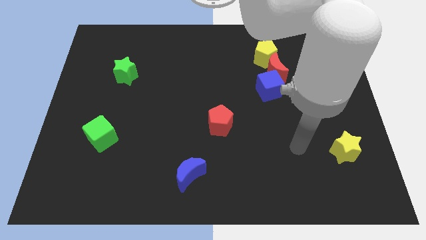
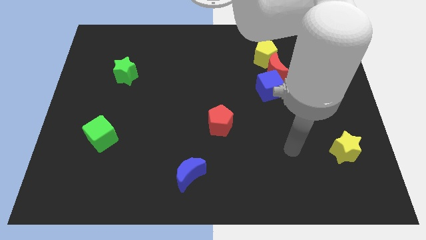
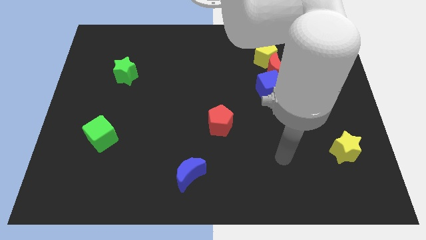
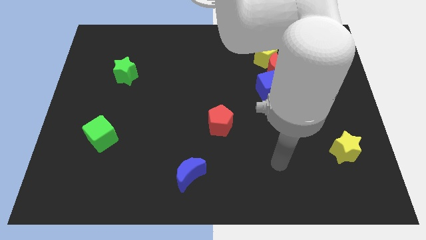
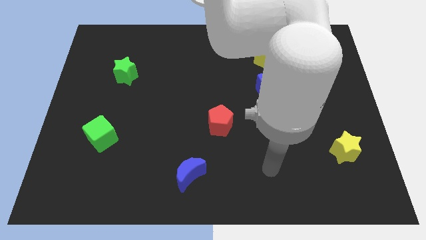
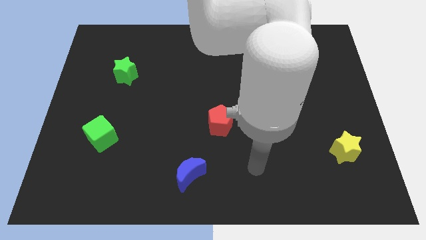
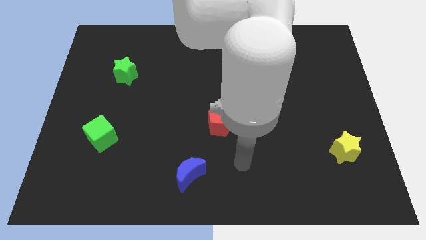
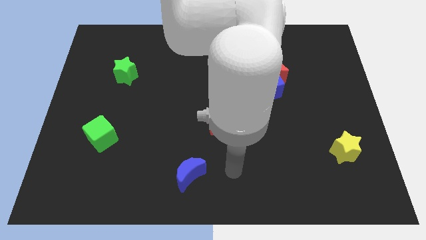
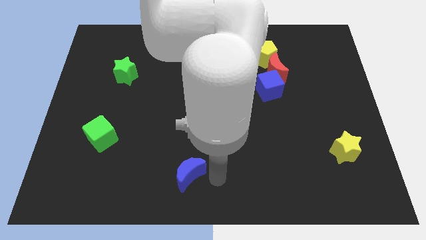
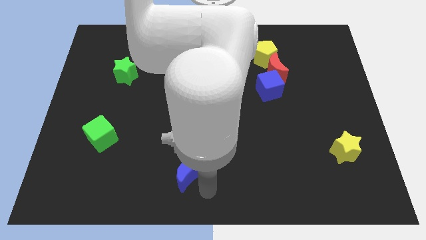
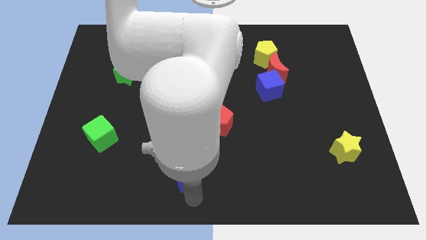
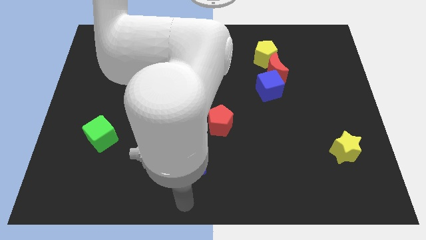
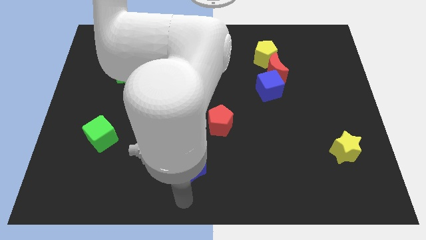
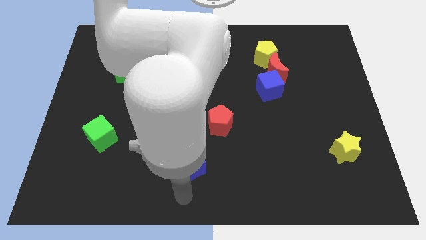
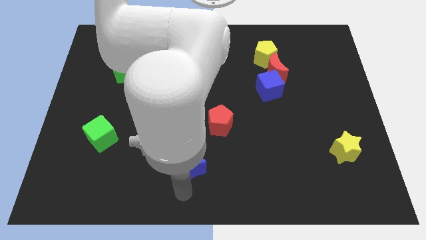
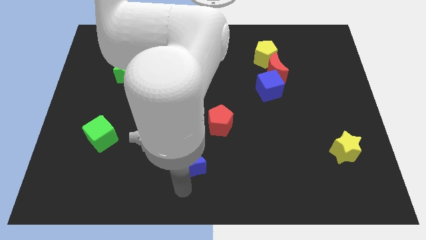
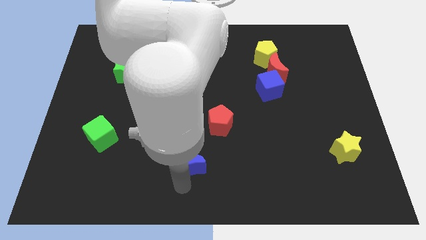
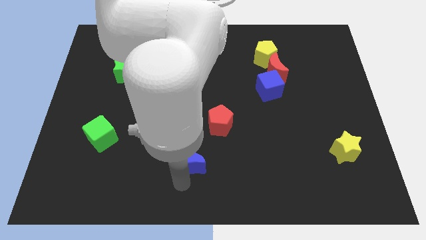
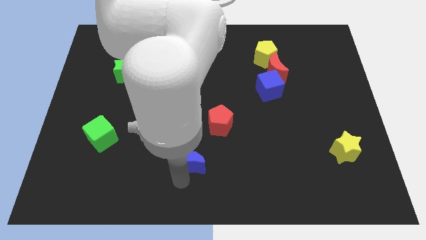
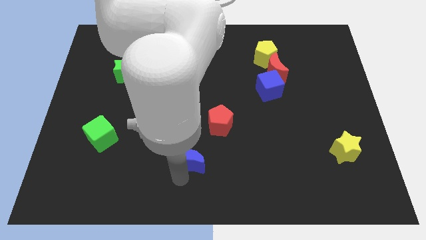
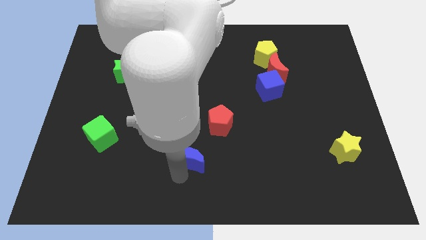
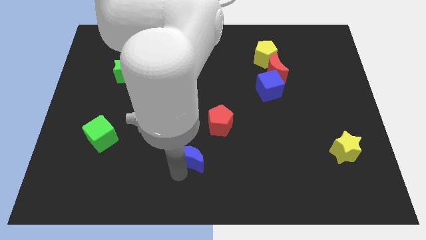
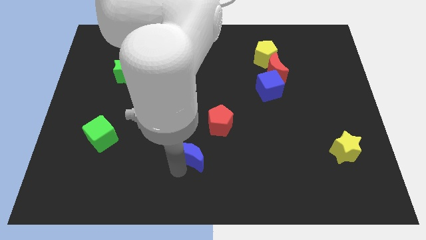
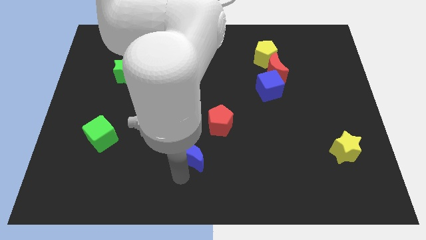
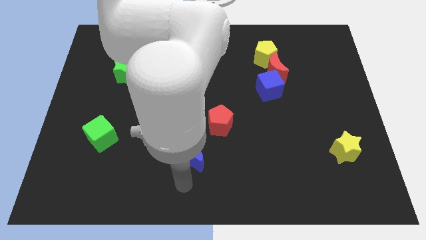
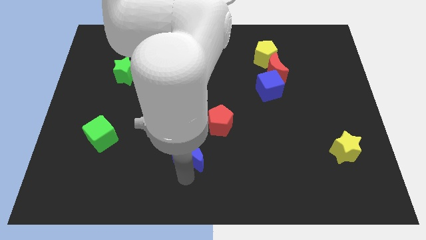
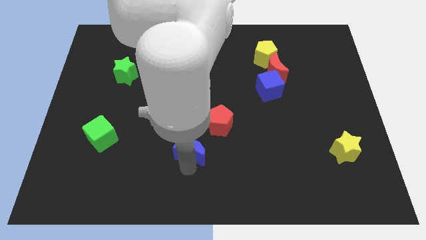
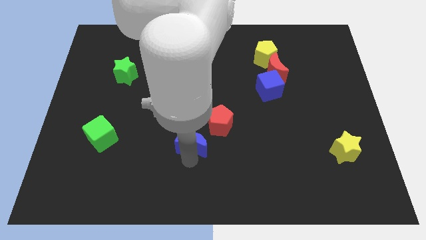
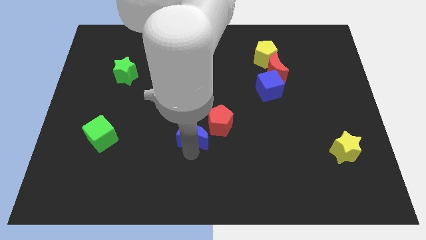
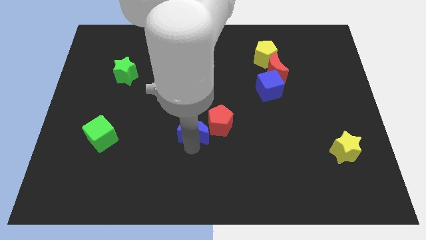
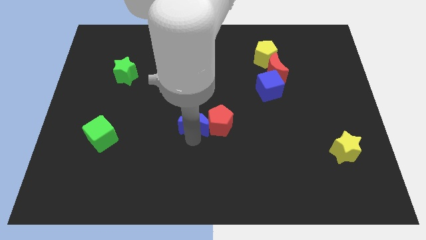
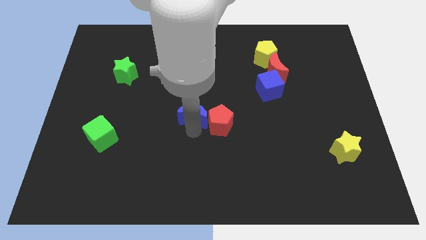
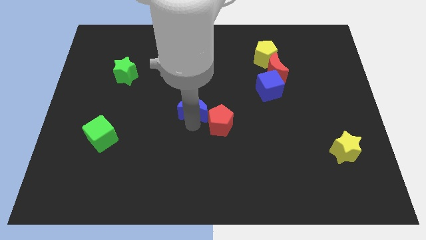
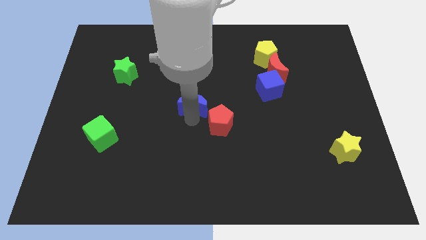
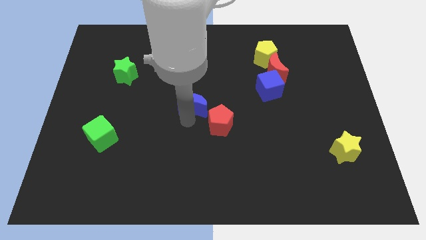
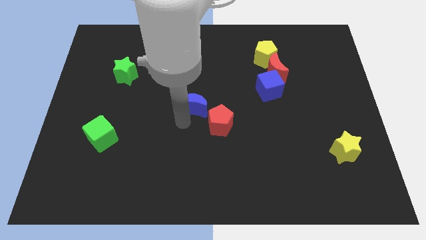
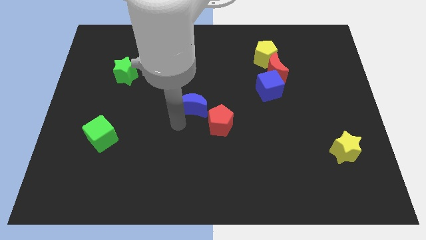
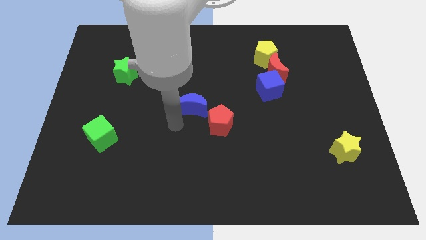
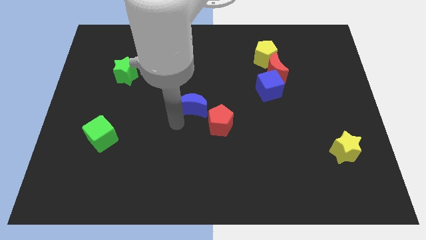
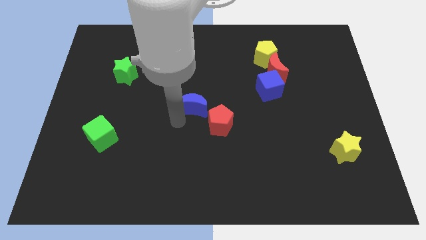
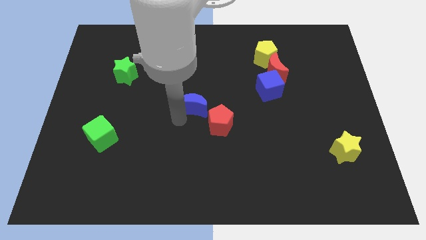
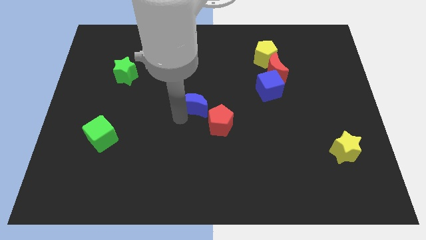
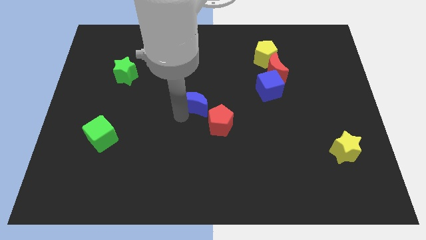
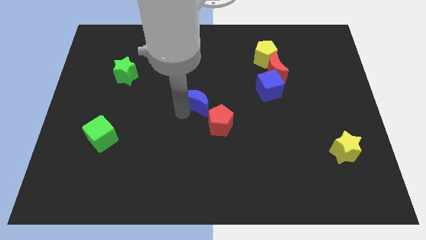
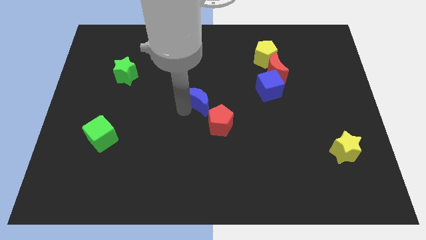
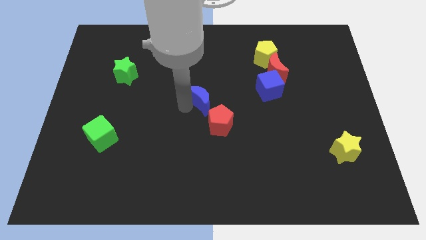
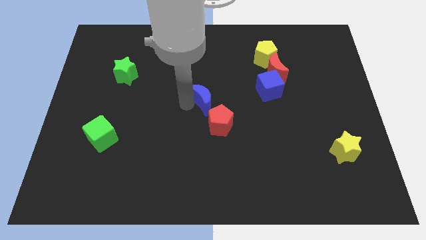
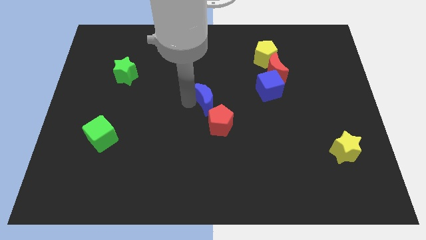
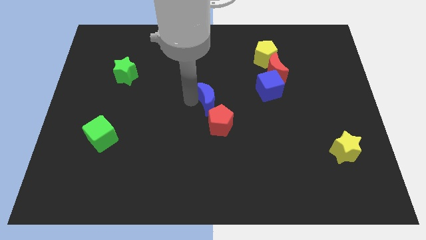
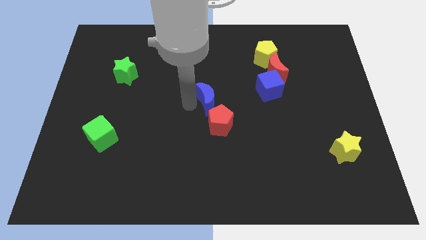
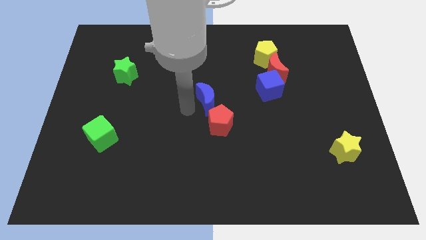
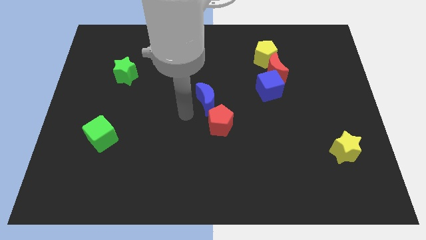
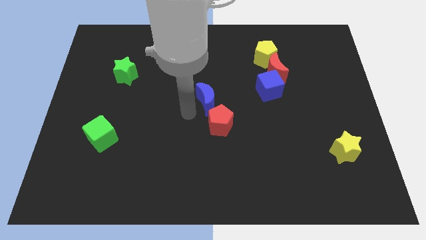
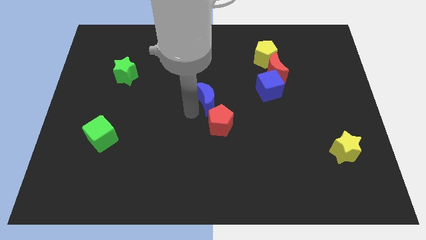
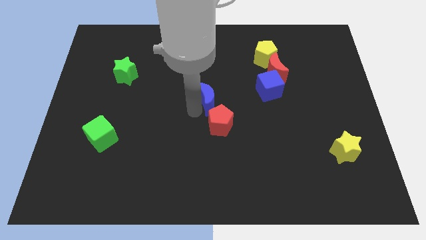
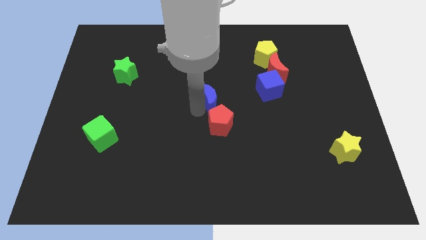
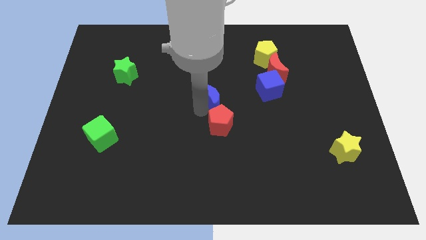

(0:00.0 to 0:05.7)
push the blue moon to the left side of the blue cube

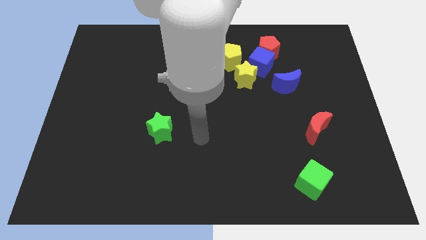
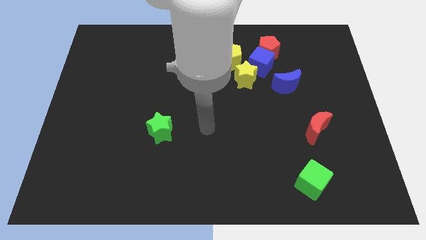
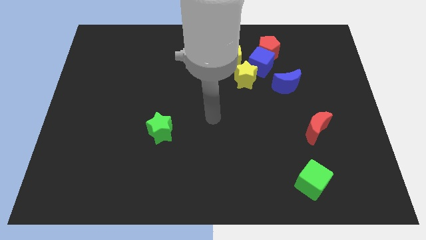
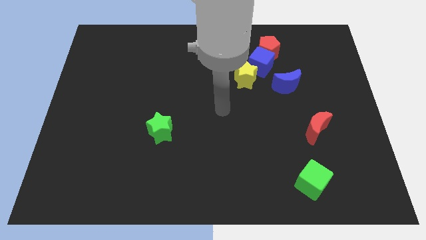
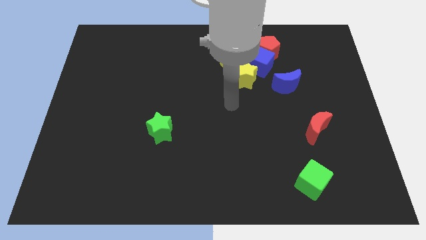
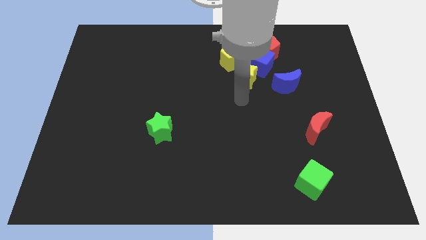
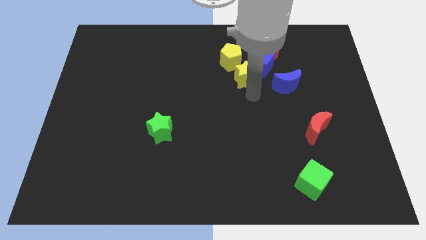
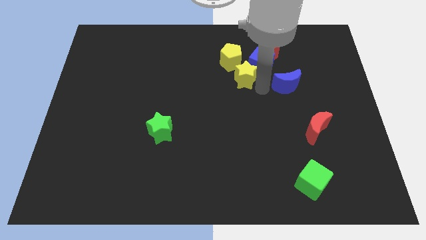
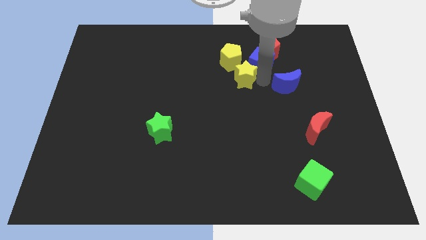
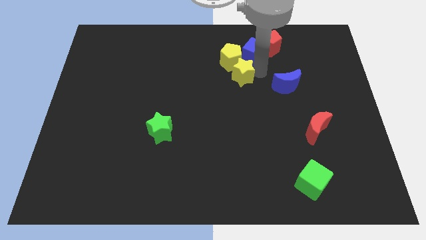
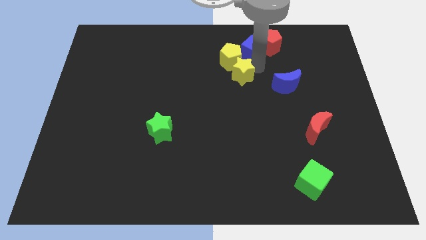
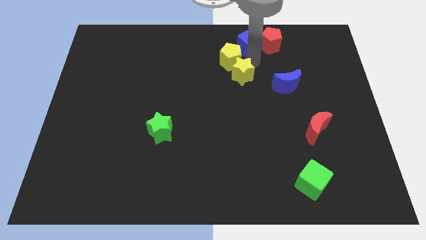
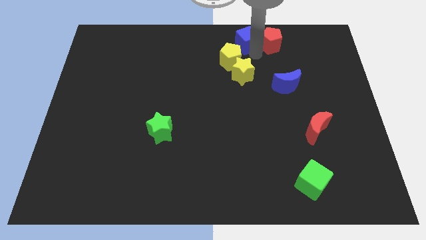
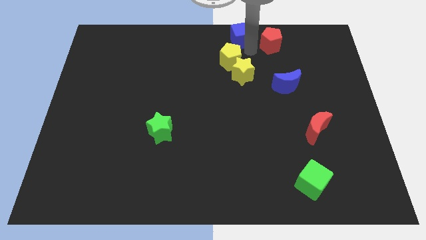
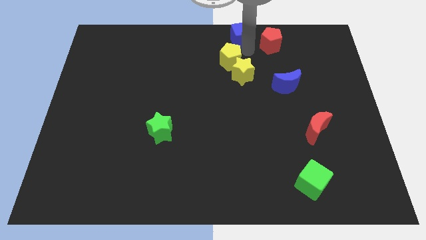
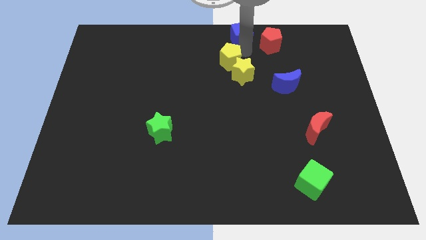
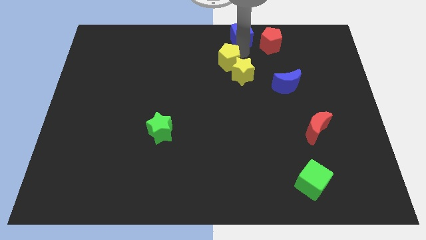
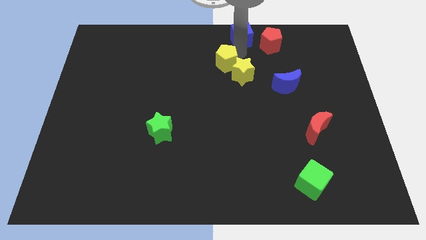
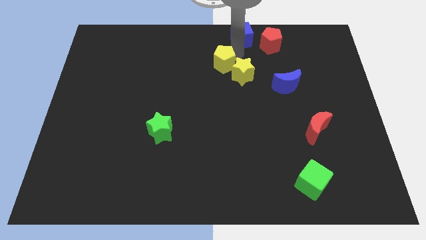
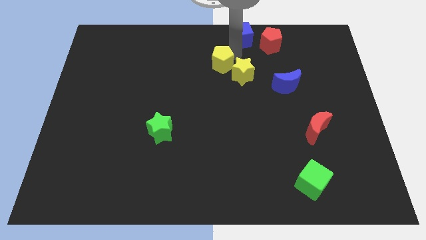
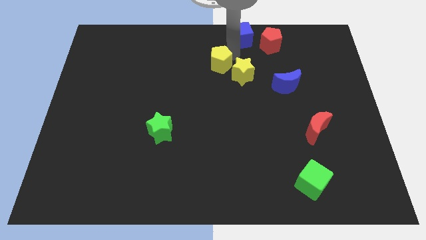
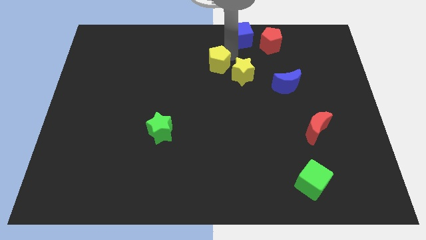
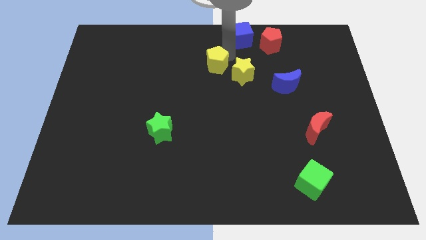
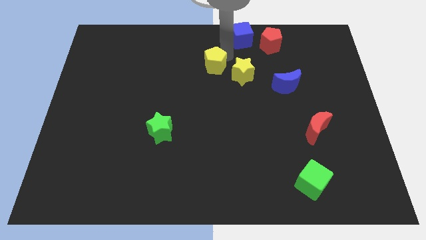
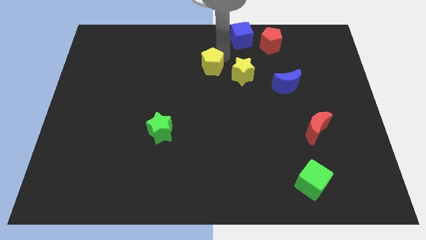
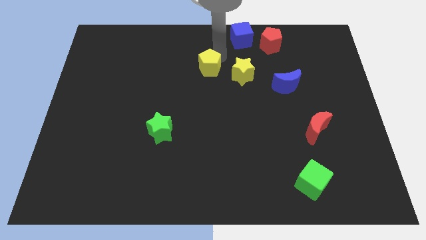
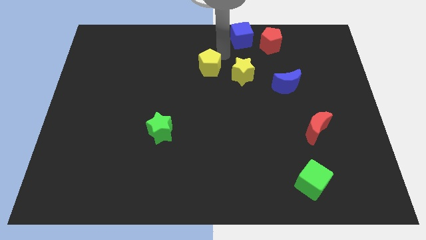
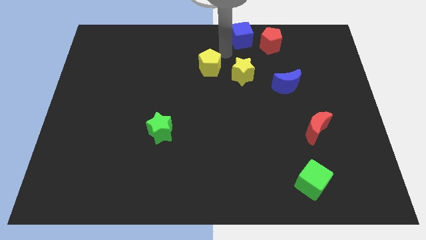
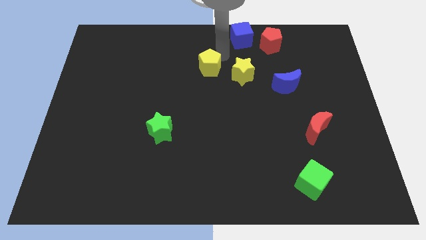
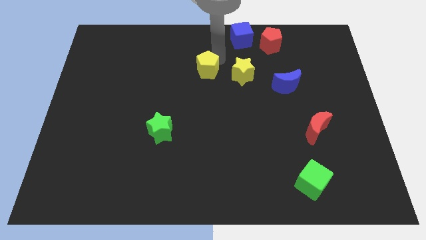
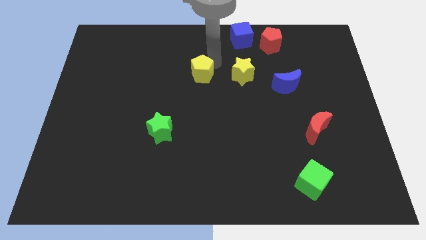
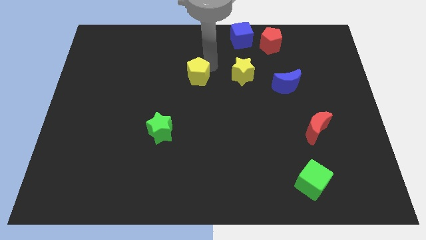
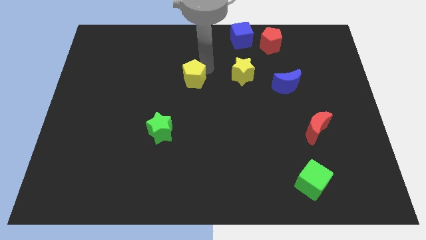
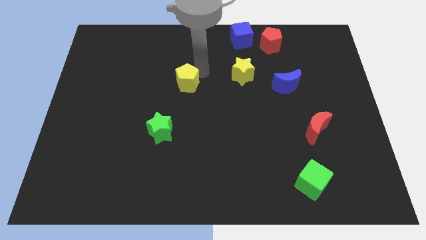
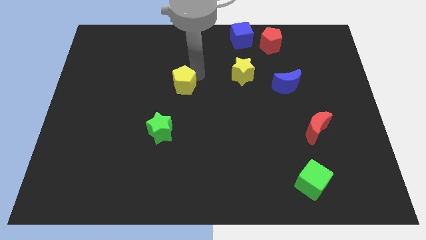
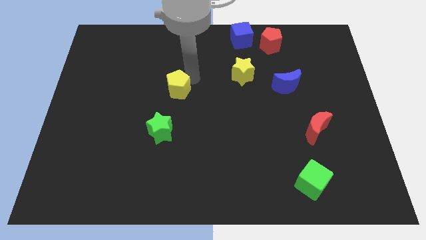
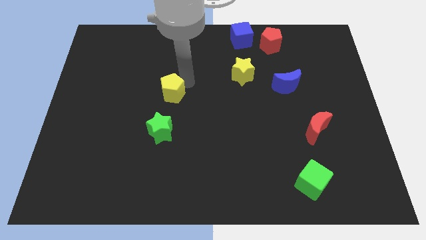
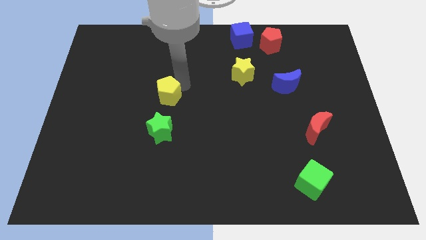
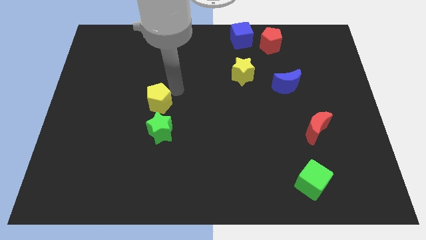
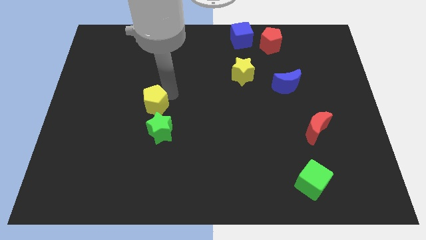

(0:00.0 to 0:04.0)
push the yellow pentagon diagonally up and to the left of the green star
